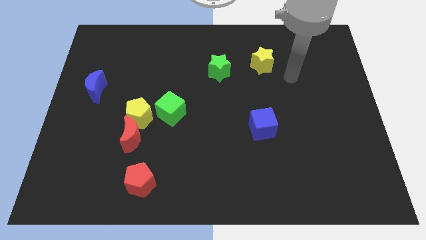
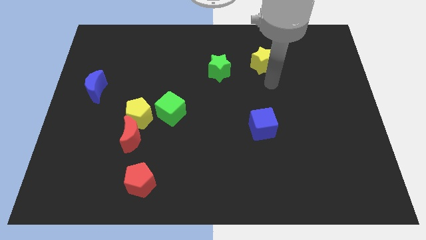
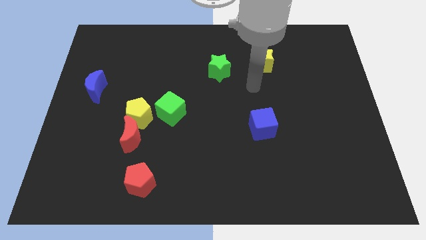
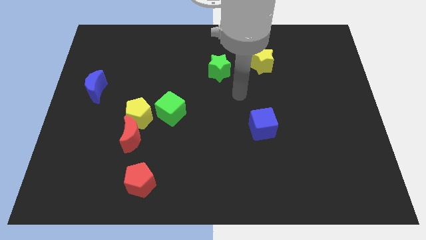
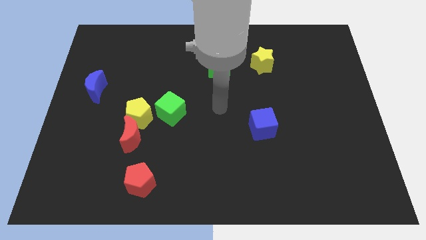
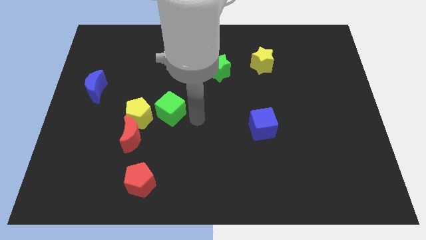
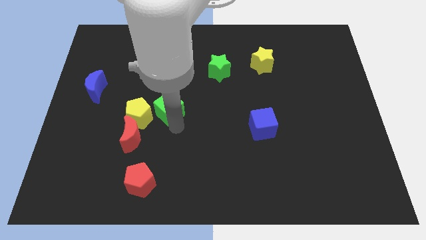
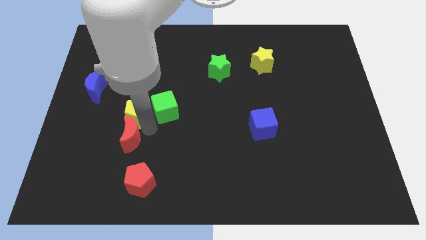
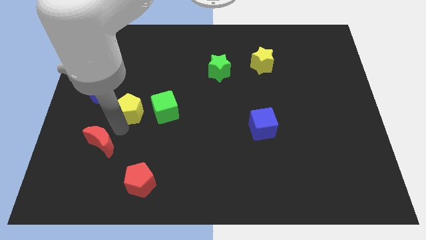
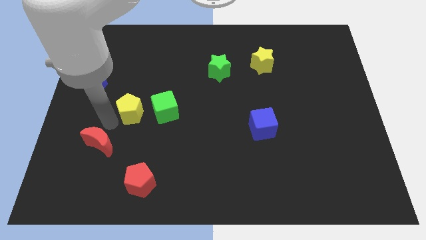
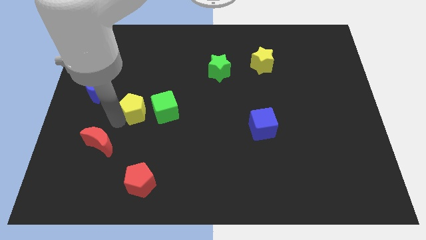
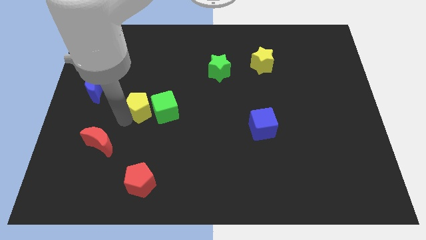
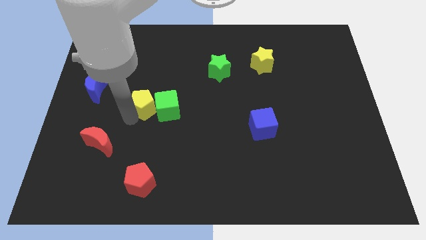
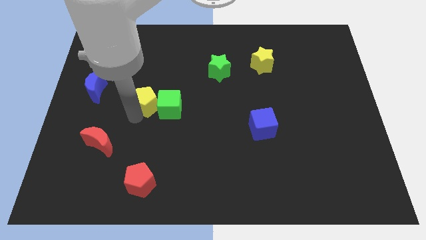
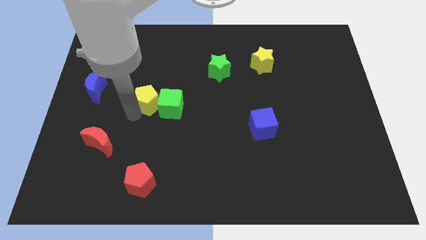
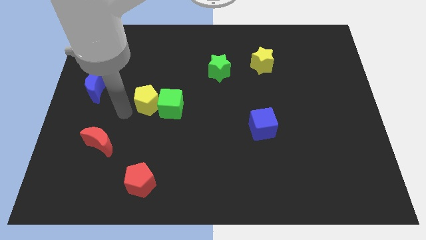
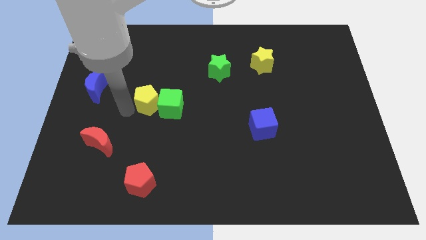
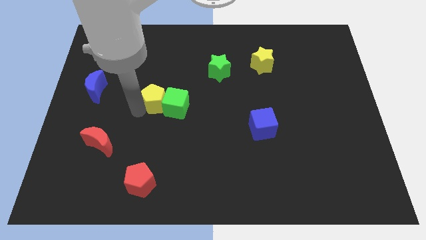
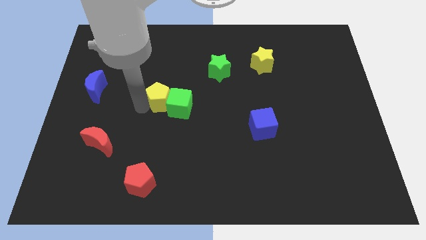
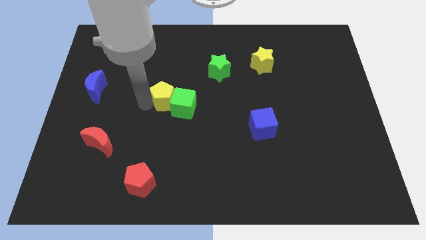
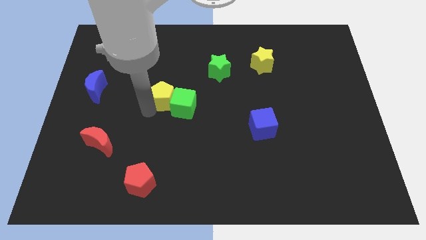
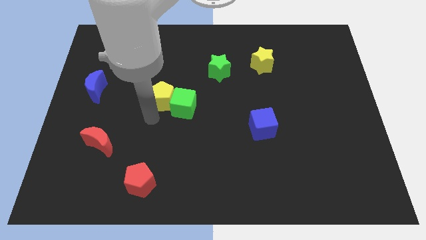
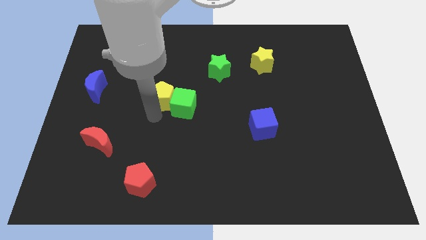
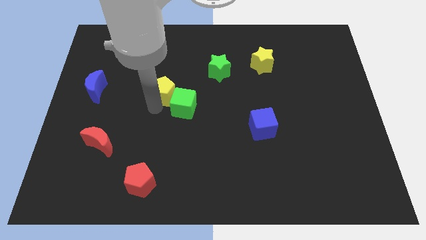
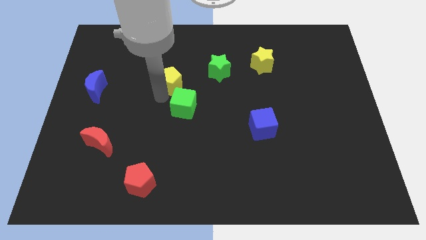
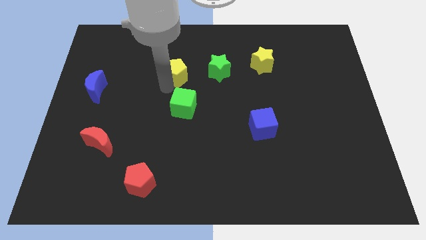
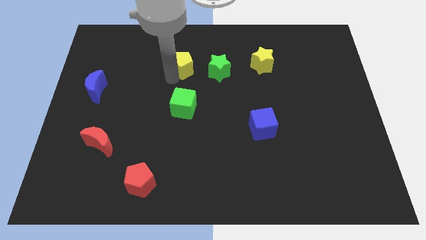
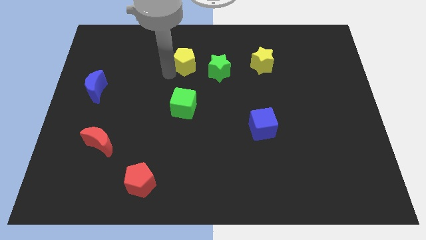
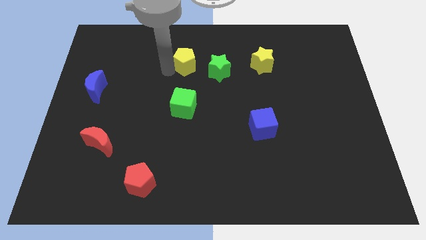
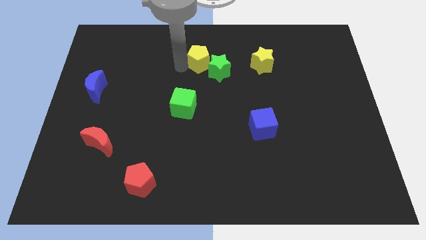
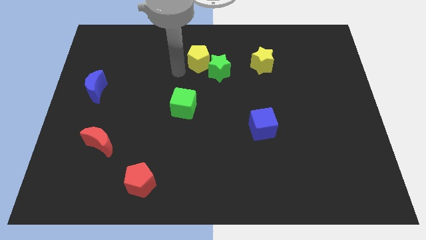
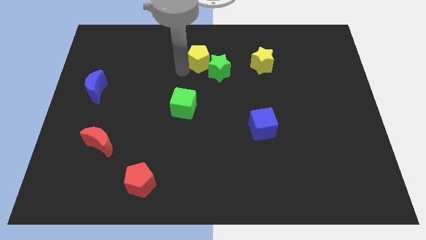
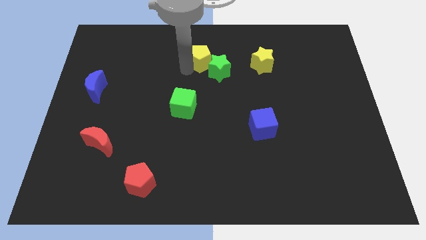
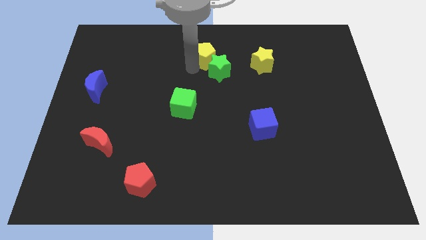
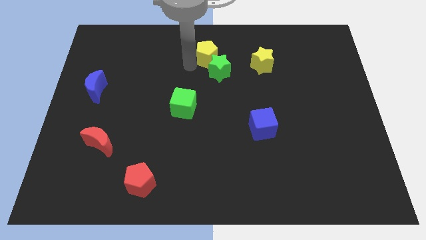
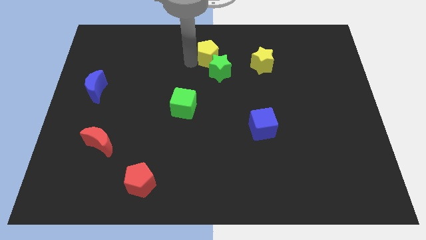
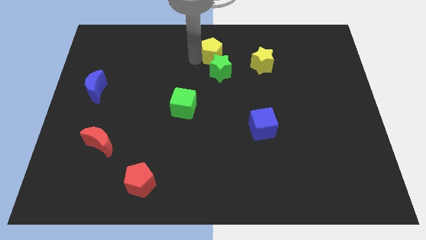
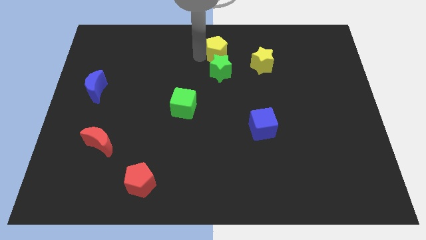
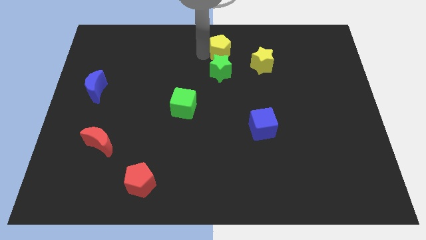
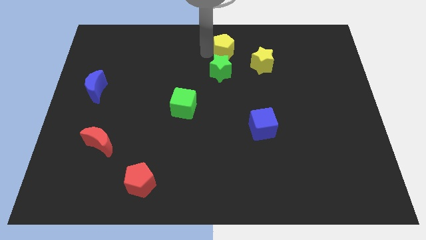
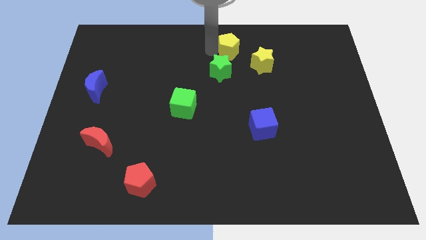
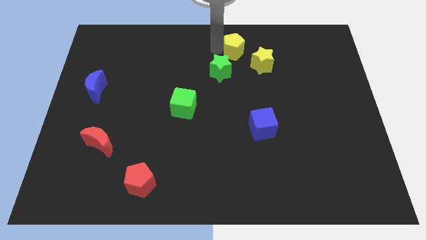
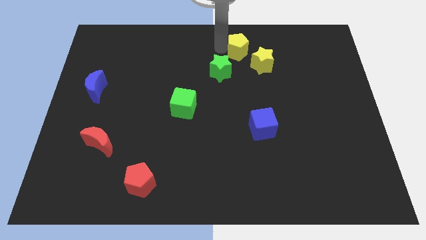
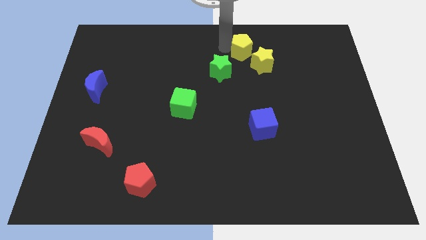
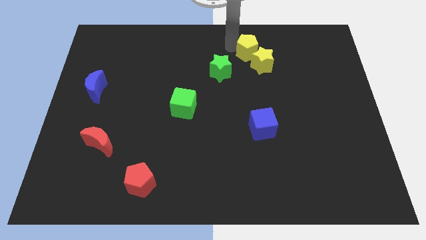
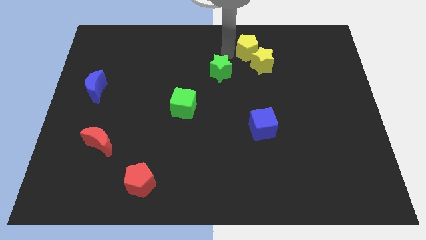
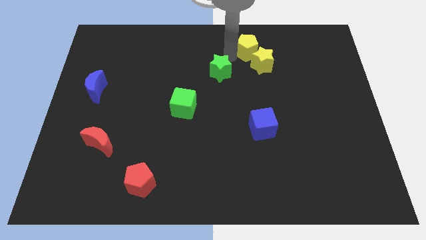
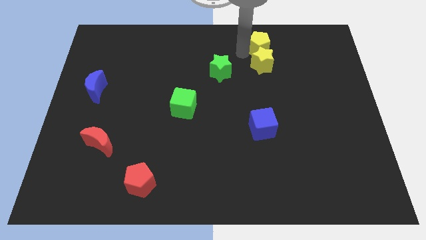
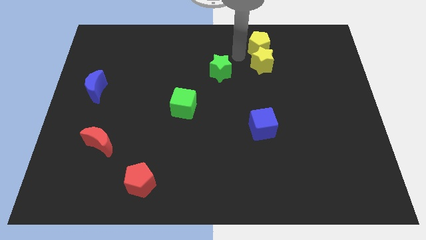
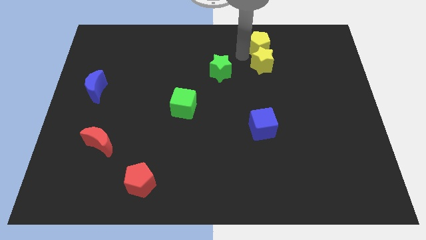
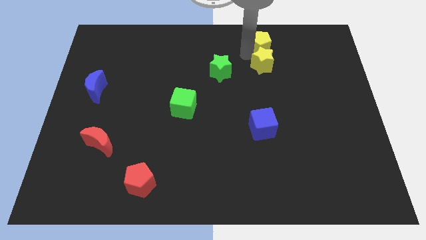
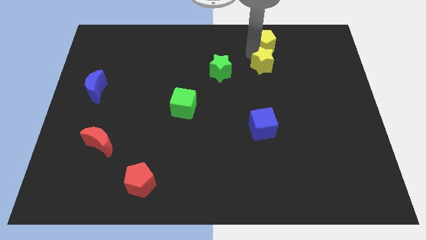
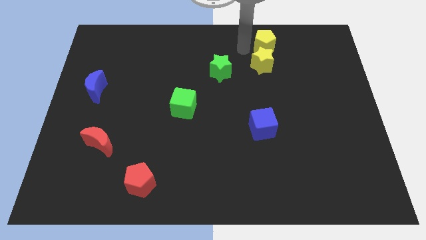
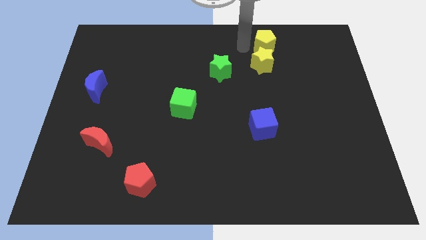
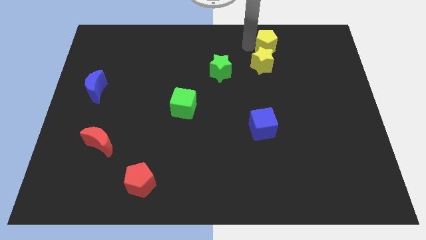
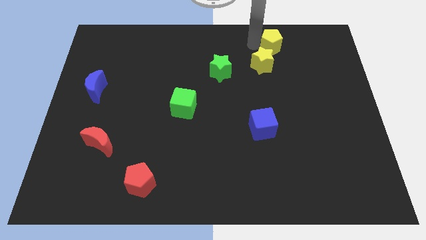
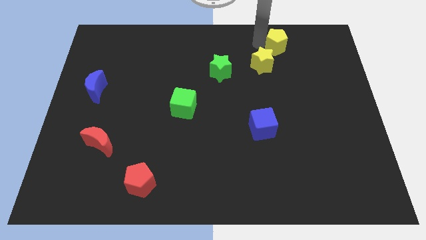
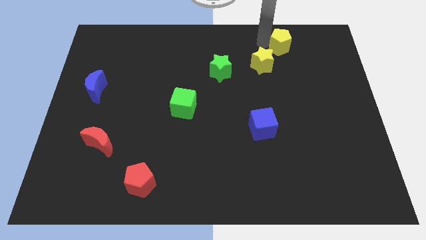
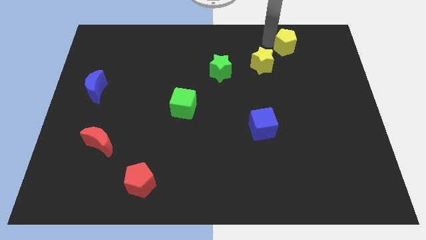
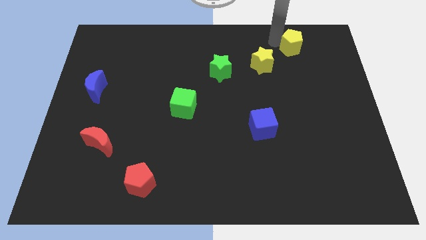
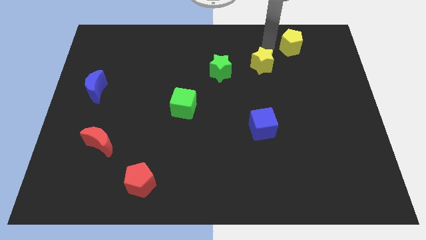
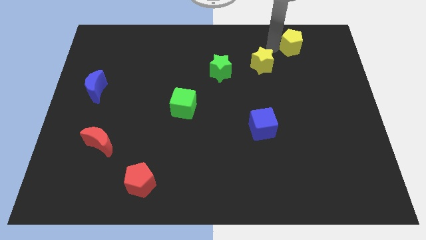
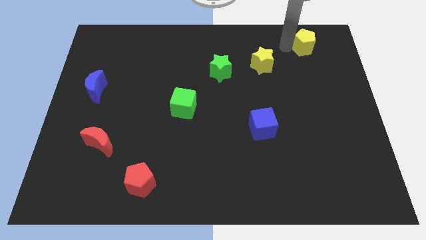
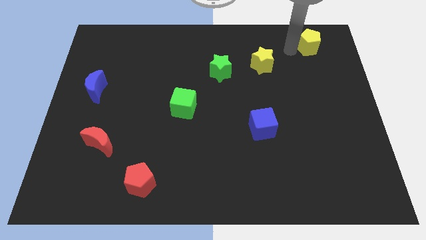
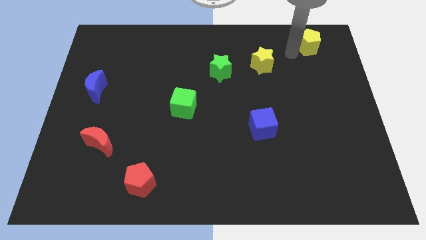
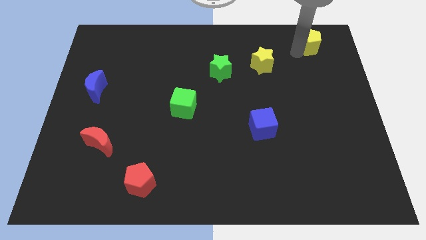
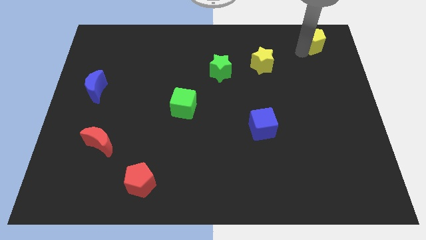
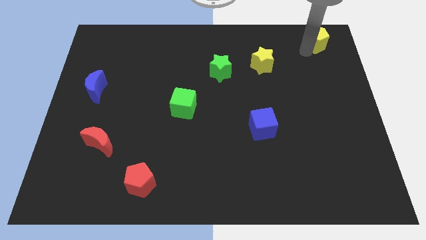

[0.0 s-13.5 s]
slide the yellow pentagon to the top right of the board
